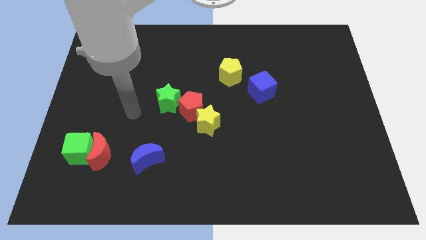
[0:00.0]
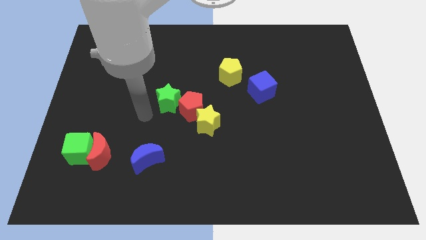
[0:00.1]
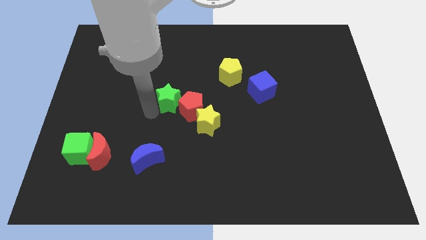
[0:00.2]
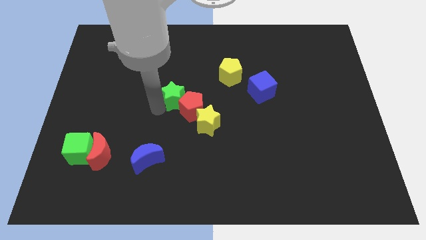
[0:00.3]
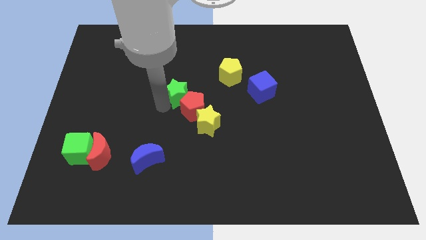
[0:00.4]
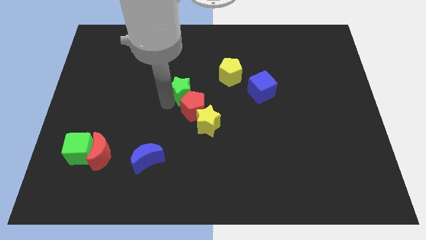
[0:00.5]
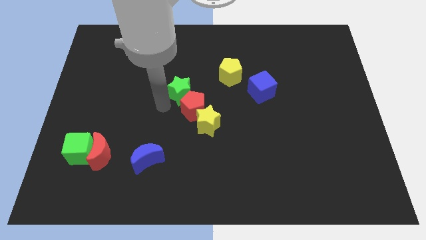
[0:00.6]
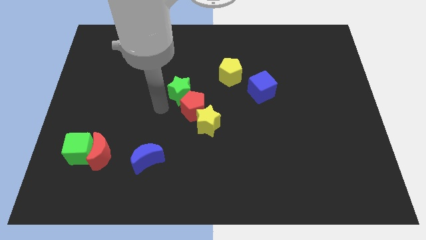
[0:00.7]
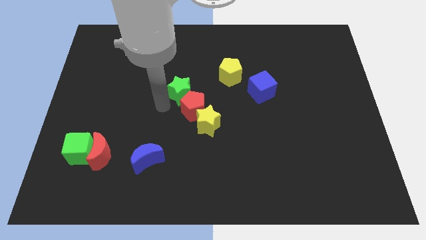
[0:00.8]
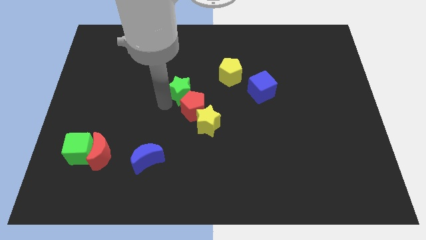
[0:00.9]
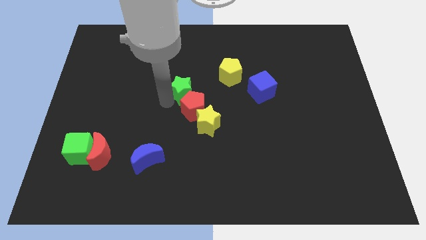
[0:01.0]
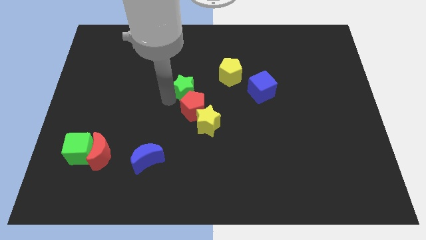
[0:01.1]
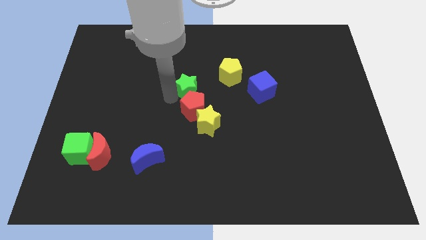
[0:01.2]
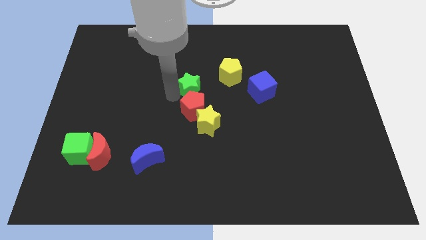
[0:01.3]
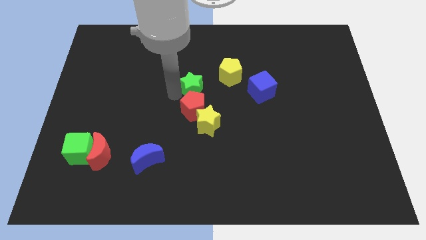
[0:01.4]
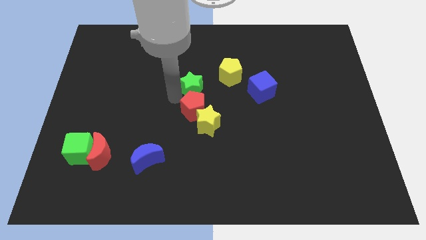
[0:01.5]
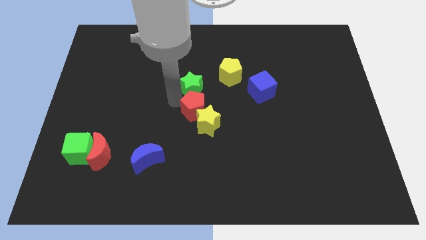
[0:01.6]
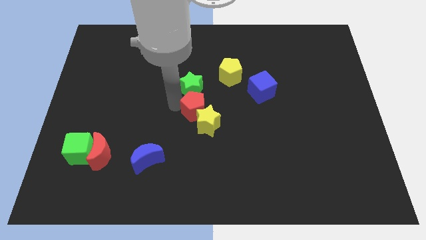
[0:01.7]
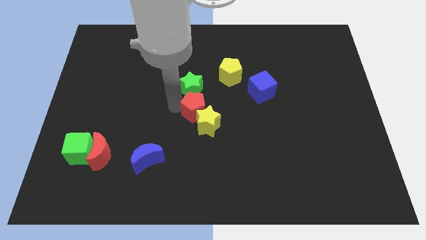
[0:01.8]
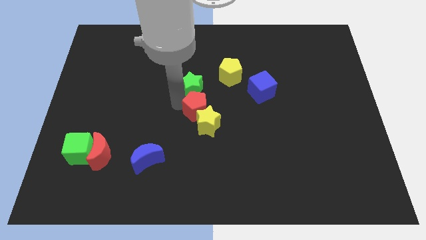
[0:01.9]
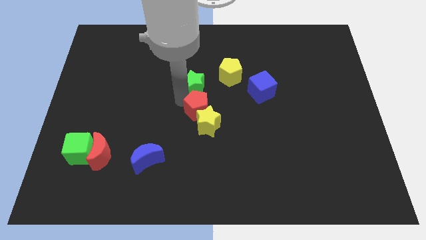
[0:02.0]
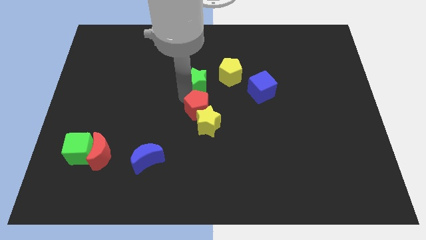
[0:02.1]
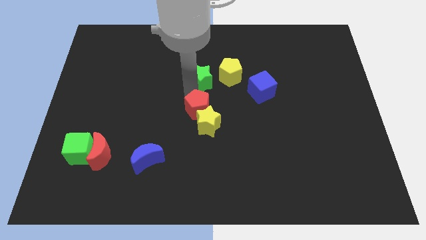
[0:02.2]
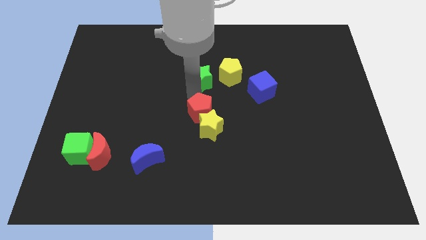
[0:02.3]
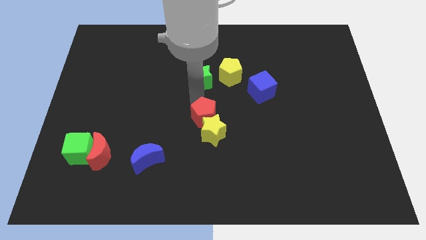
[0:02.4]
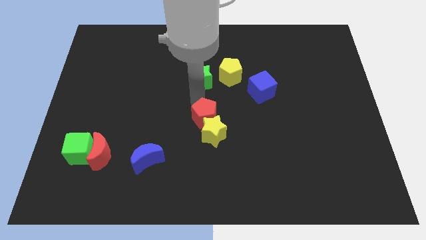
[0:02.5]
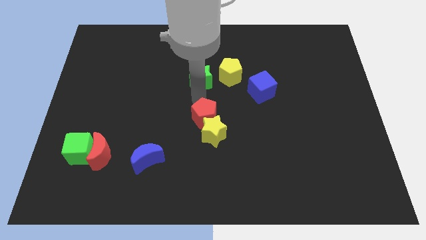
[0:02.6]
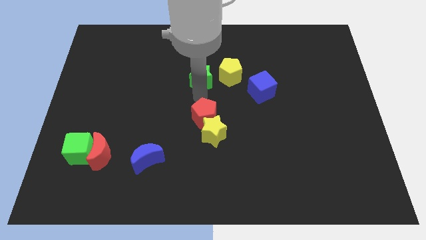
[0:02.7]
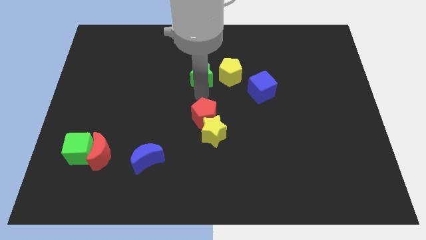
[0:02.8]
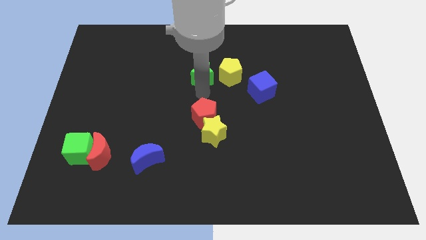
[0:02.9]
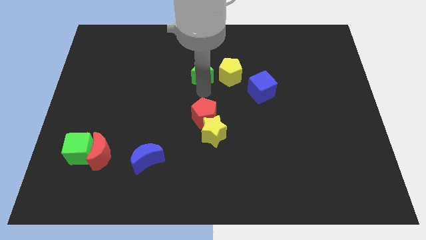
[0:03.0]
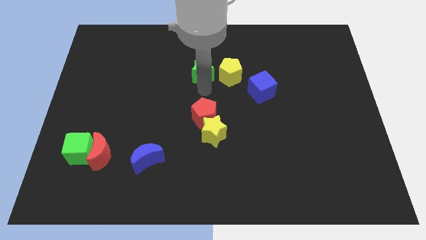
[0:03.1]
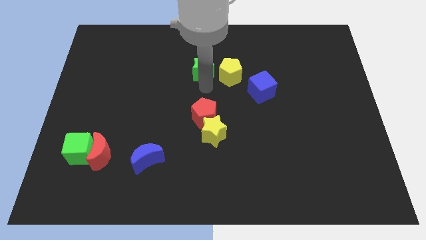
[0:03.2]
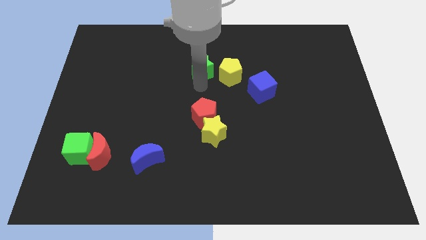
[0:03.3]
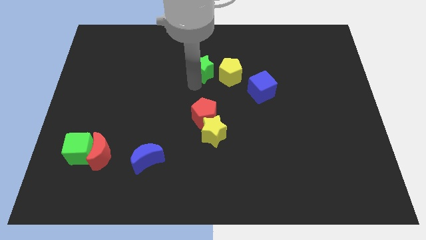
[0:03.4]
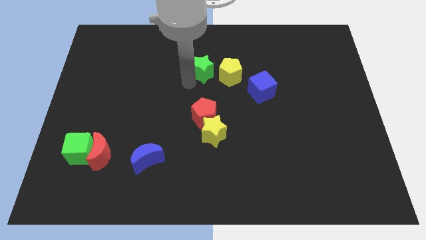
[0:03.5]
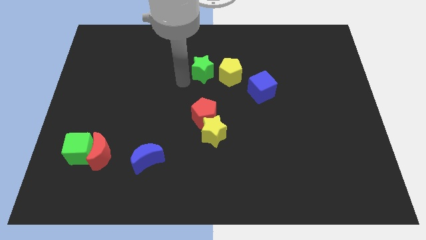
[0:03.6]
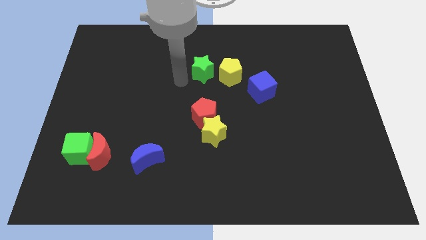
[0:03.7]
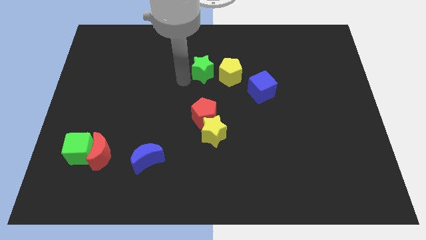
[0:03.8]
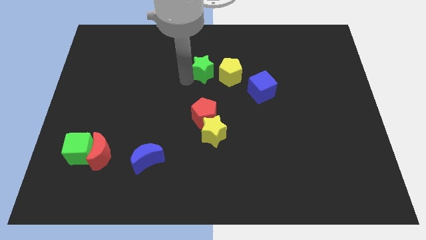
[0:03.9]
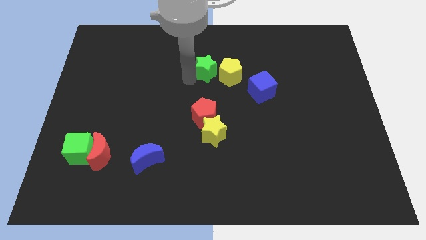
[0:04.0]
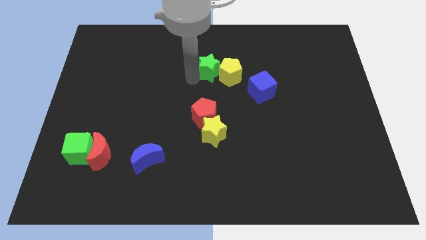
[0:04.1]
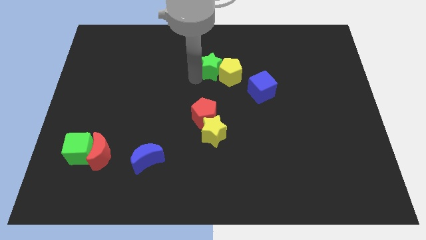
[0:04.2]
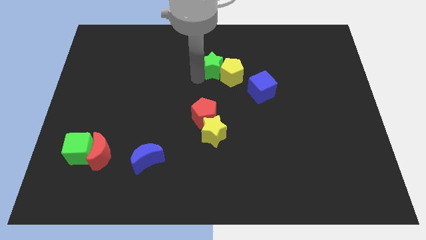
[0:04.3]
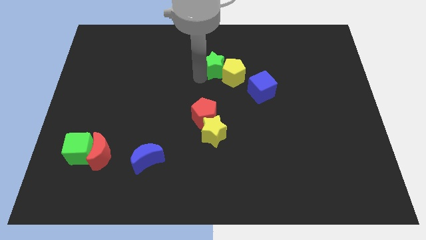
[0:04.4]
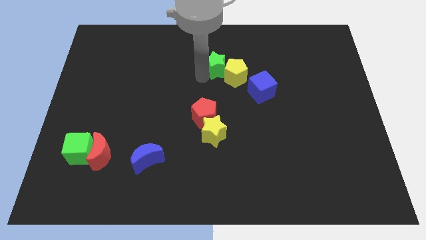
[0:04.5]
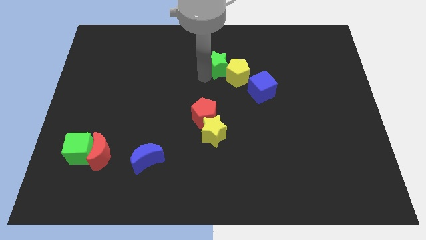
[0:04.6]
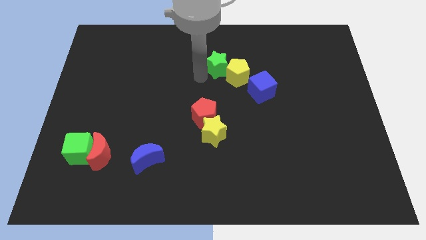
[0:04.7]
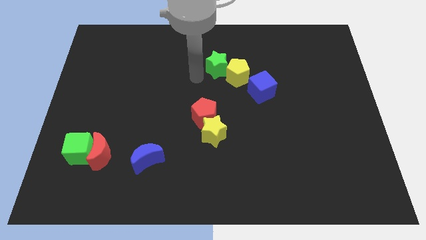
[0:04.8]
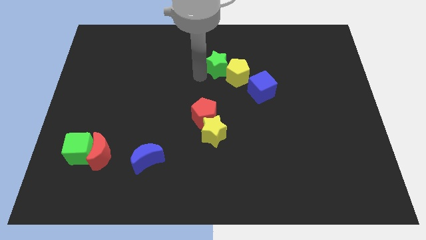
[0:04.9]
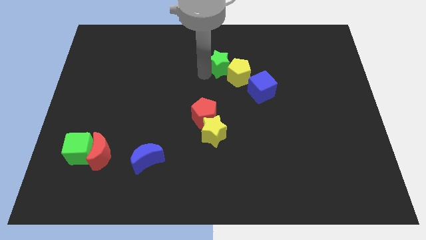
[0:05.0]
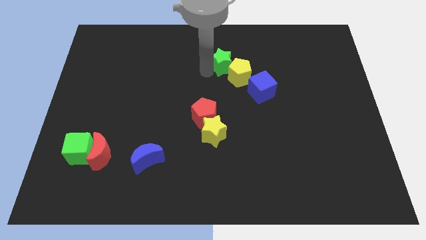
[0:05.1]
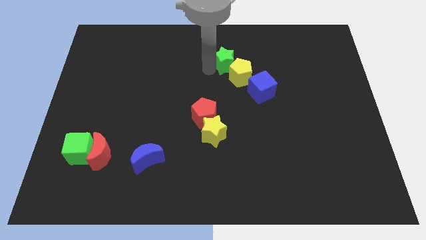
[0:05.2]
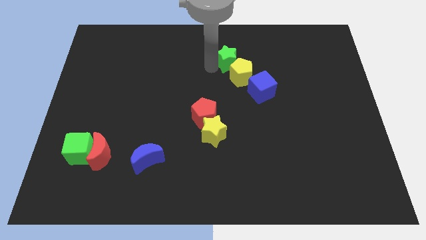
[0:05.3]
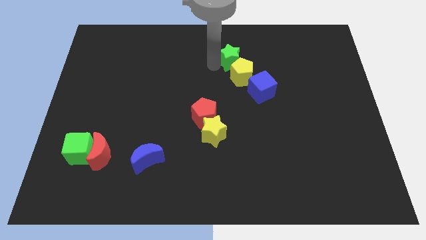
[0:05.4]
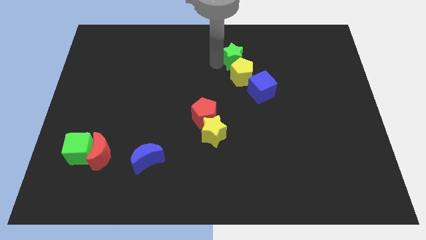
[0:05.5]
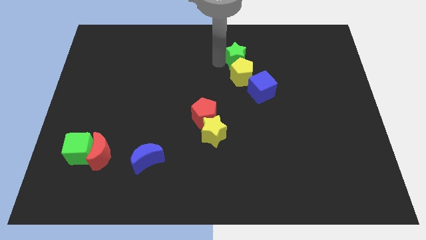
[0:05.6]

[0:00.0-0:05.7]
put the green star to the top right of the yellow pentagon

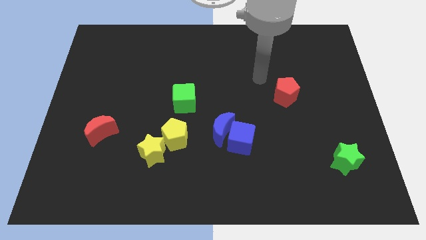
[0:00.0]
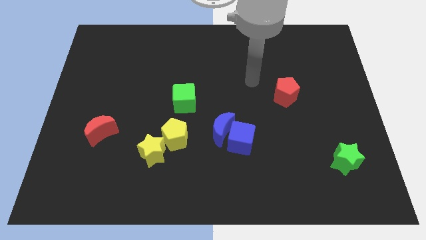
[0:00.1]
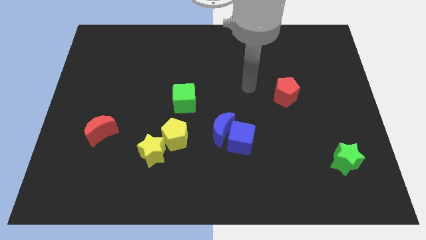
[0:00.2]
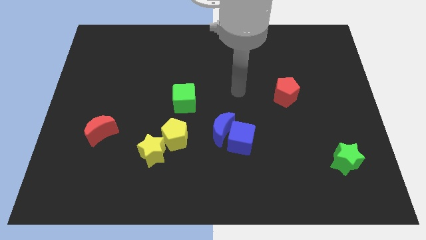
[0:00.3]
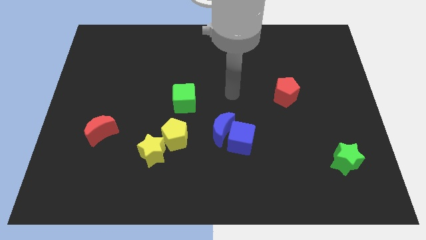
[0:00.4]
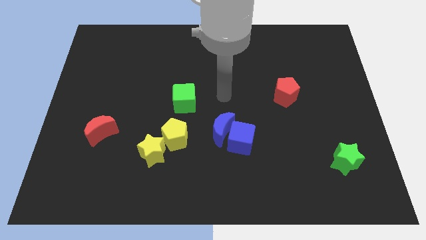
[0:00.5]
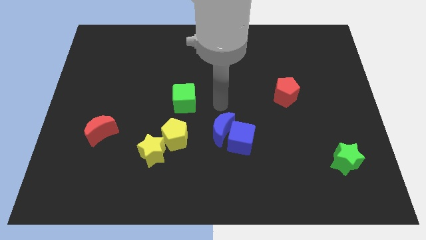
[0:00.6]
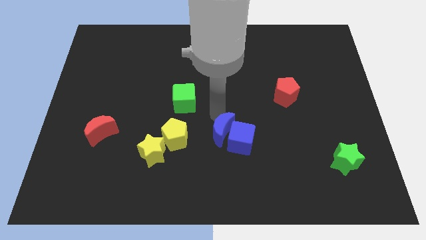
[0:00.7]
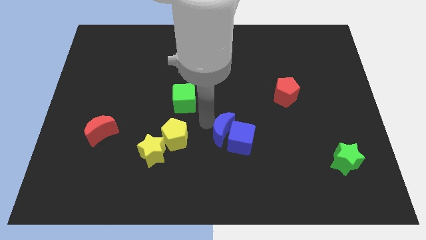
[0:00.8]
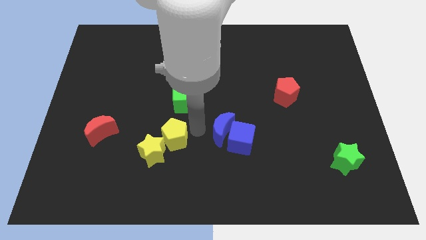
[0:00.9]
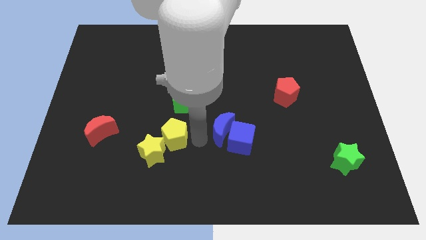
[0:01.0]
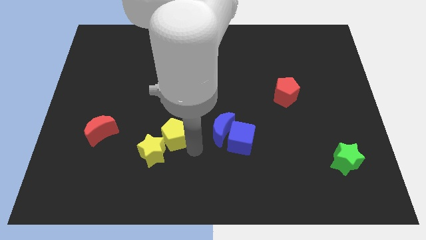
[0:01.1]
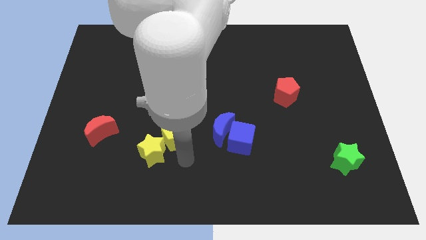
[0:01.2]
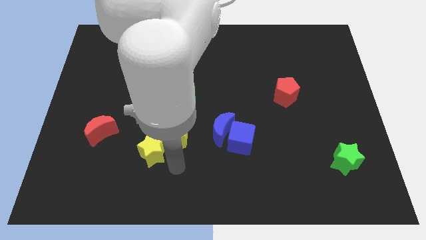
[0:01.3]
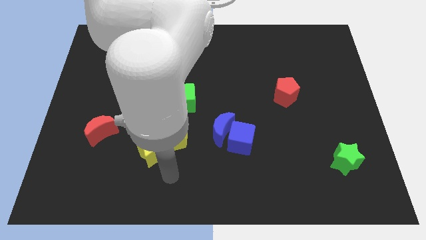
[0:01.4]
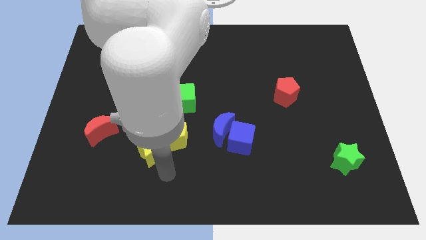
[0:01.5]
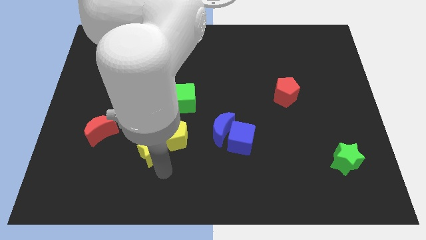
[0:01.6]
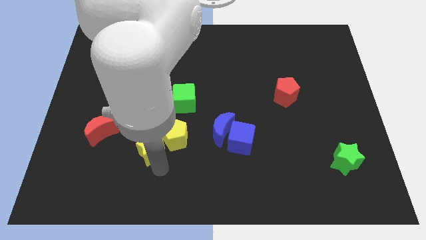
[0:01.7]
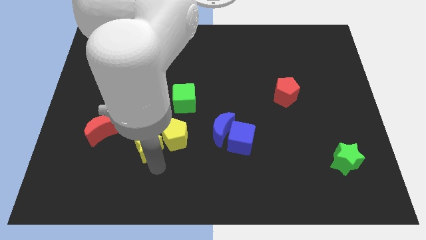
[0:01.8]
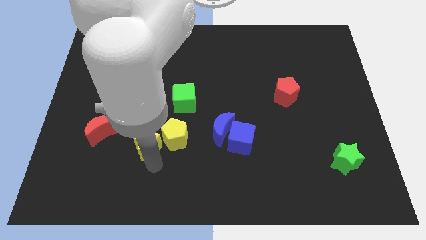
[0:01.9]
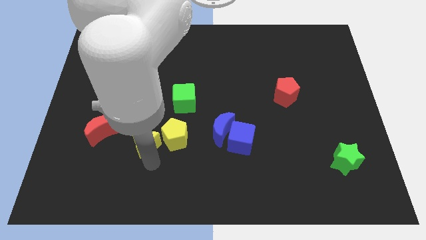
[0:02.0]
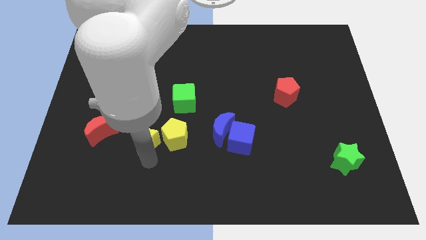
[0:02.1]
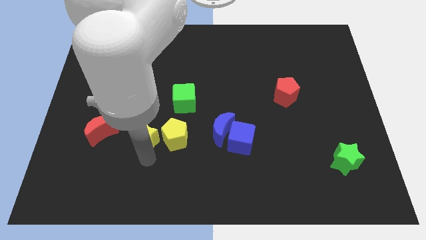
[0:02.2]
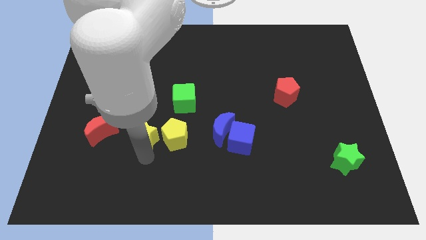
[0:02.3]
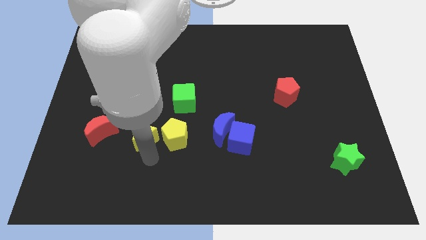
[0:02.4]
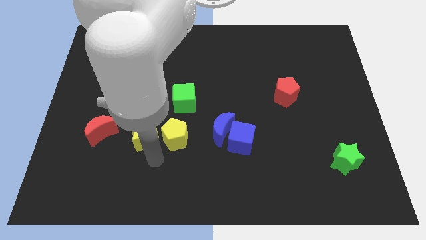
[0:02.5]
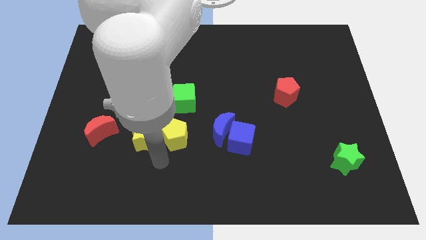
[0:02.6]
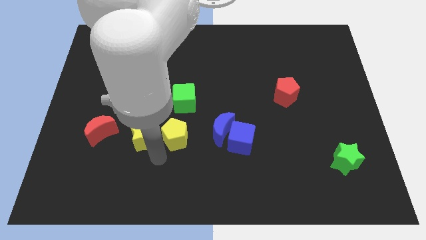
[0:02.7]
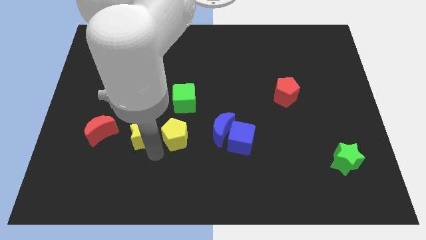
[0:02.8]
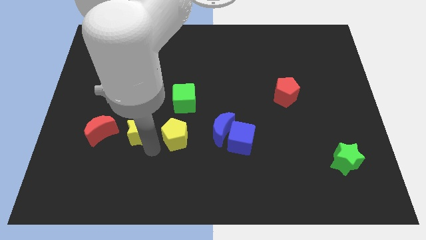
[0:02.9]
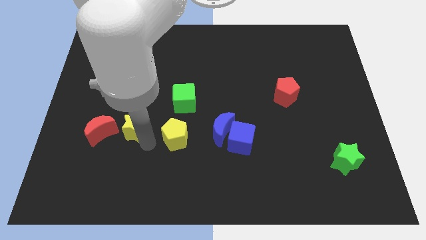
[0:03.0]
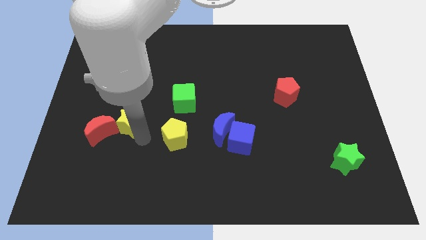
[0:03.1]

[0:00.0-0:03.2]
put the yellow star diagonally up and to the right of the red moon
